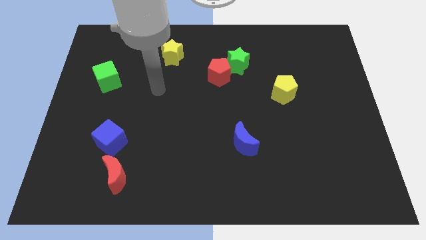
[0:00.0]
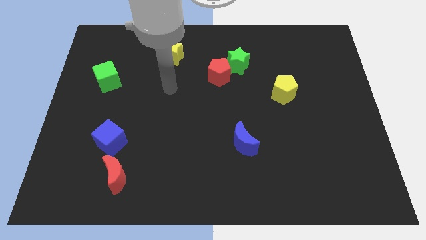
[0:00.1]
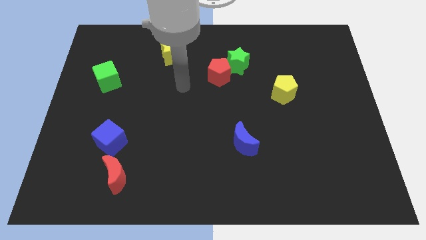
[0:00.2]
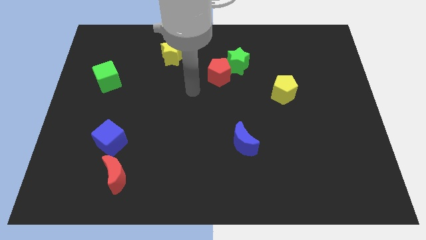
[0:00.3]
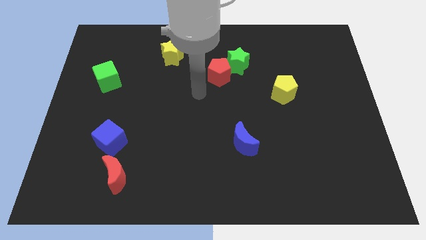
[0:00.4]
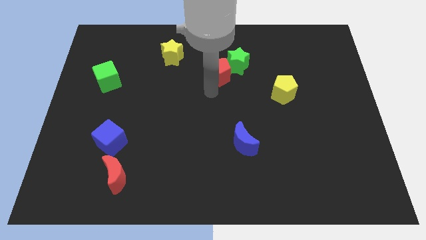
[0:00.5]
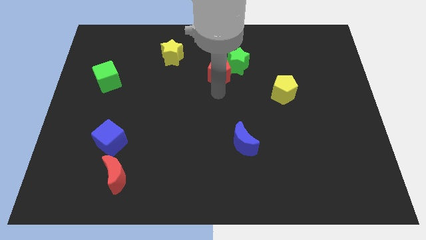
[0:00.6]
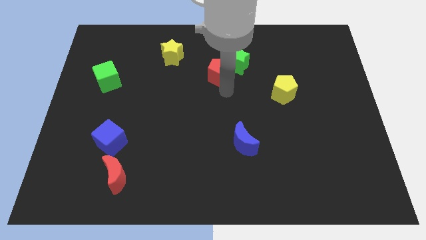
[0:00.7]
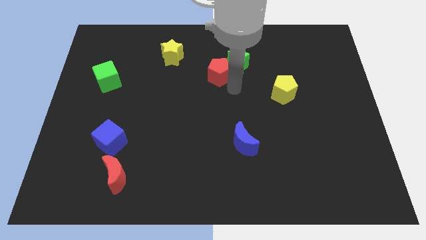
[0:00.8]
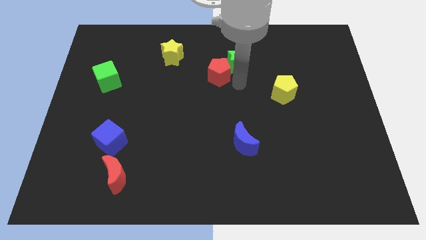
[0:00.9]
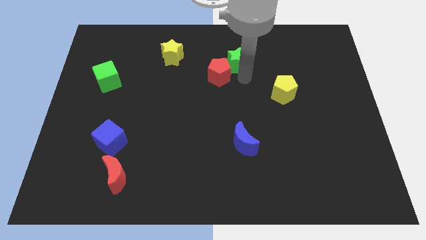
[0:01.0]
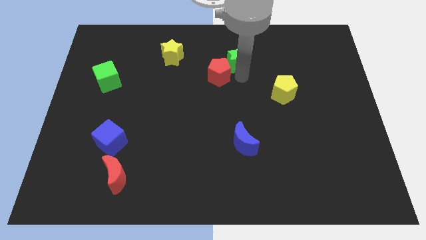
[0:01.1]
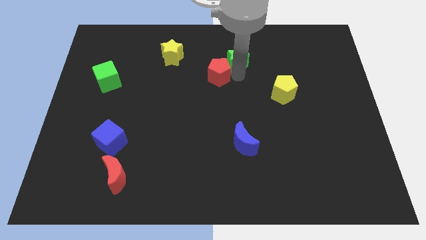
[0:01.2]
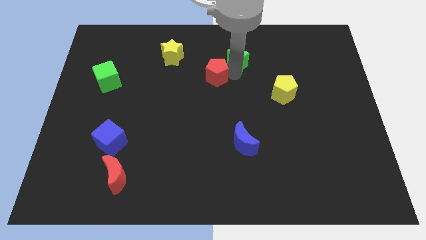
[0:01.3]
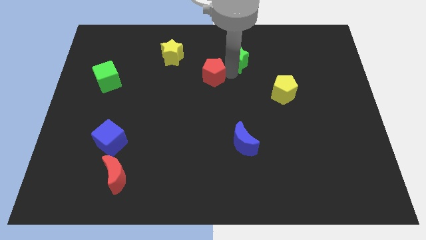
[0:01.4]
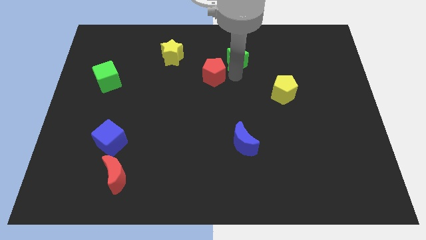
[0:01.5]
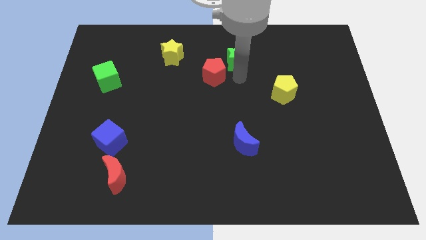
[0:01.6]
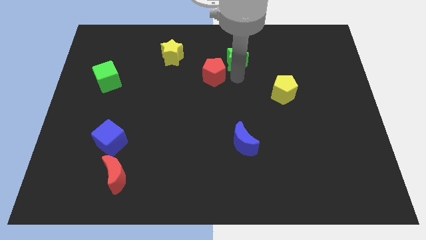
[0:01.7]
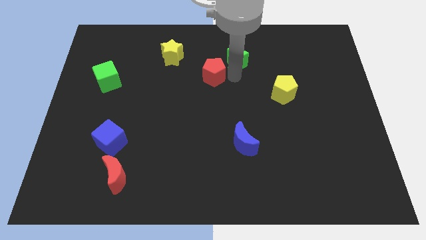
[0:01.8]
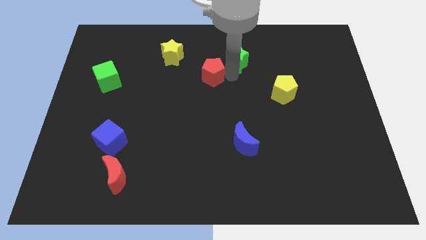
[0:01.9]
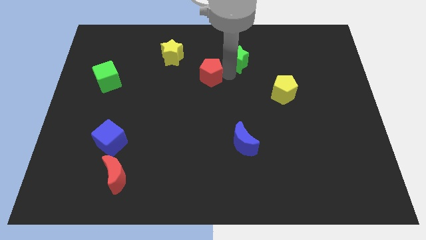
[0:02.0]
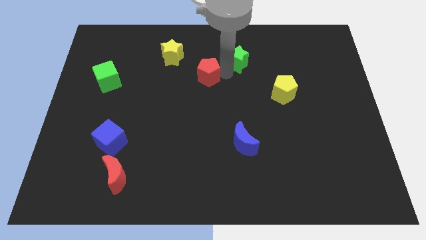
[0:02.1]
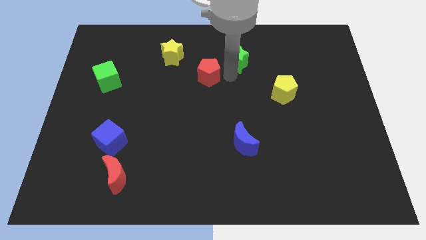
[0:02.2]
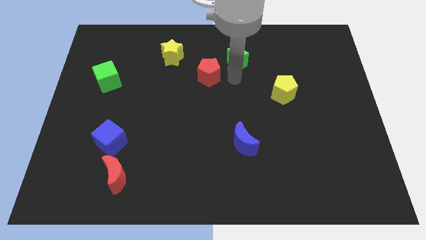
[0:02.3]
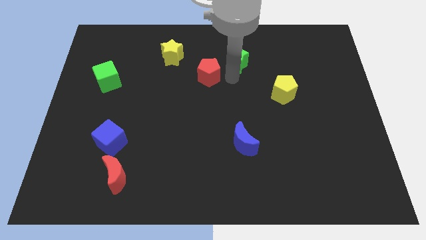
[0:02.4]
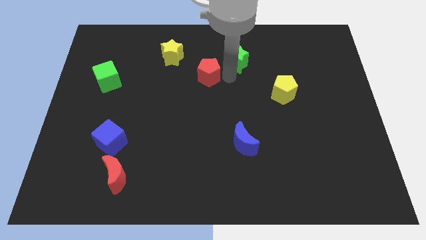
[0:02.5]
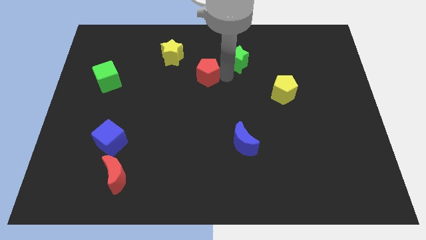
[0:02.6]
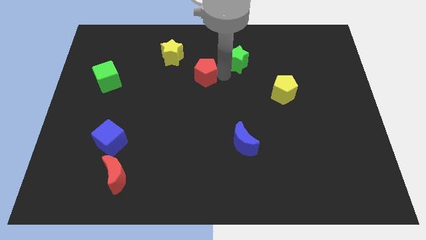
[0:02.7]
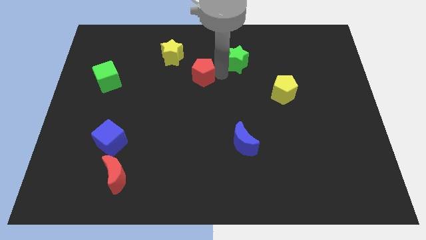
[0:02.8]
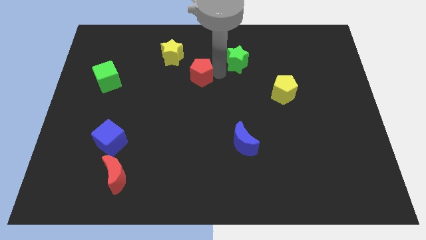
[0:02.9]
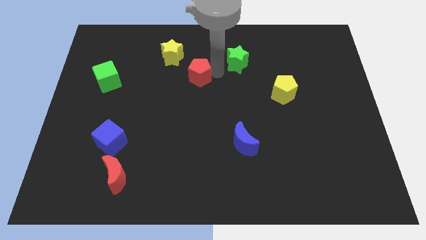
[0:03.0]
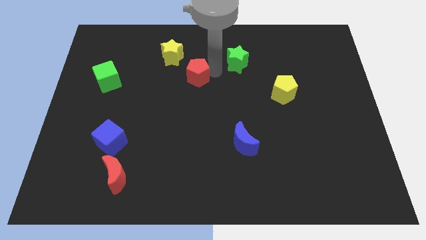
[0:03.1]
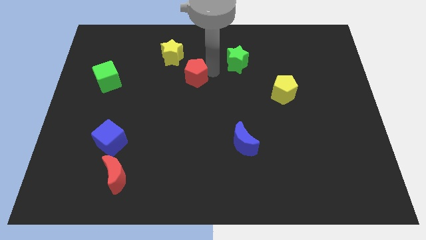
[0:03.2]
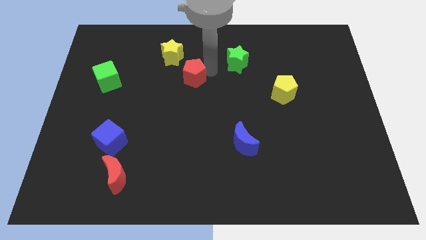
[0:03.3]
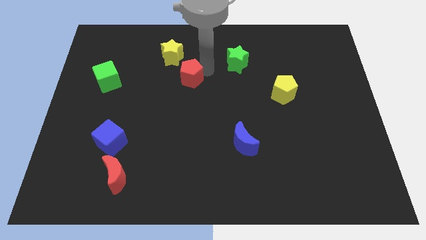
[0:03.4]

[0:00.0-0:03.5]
slide the red pentagon to the left a little

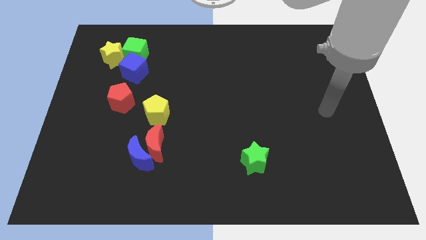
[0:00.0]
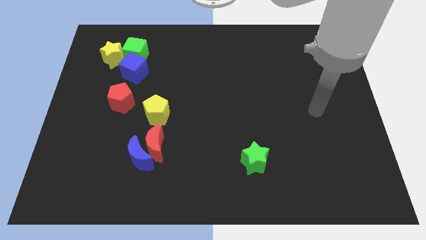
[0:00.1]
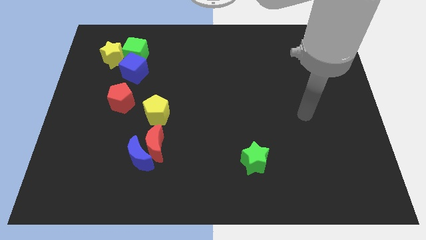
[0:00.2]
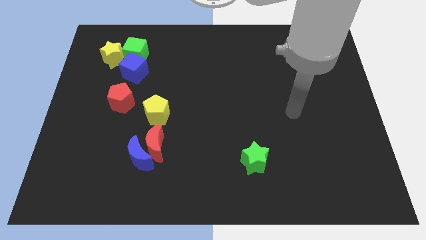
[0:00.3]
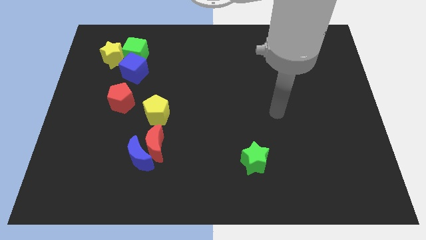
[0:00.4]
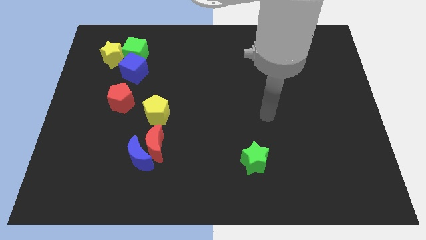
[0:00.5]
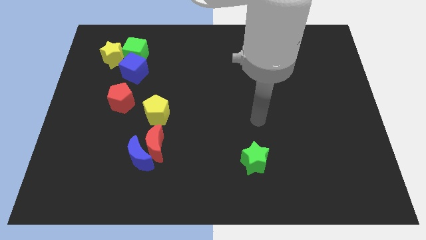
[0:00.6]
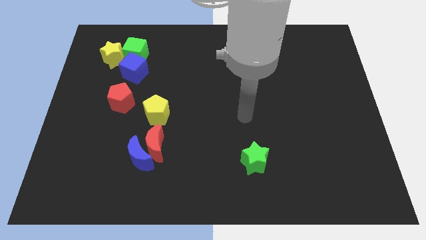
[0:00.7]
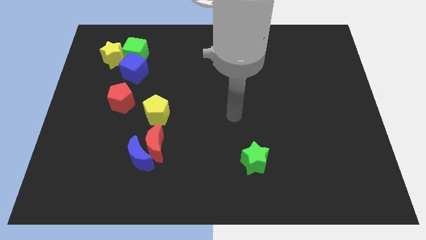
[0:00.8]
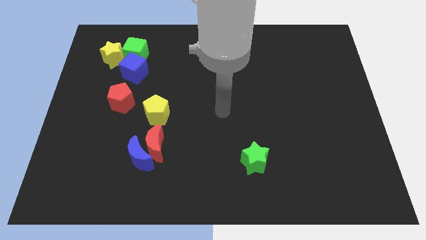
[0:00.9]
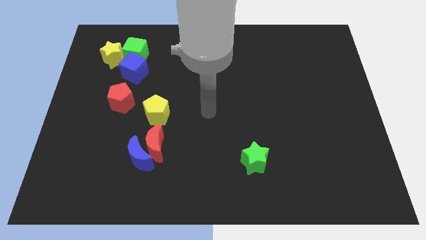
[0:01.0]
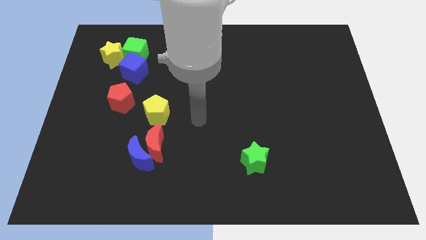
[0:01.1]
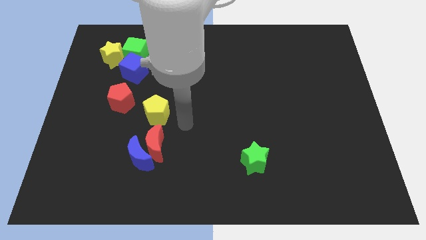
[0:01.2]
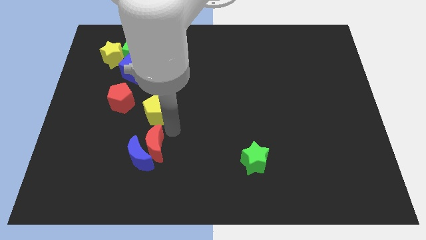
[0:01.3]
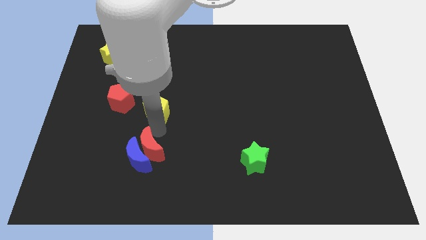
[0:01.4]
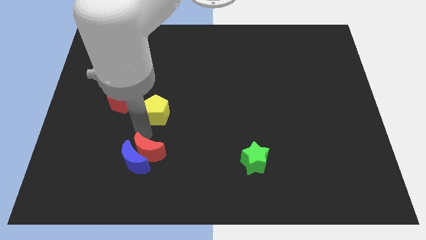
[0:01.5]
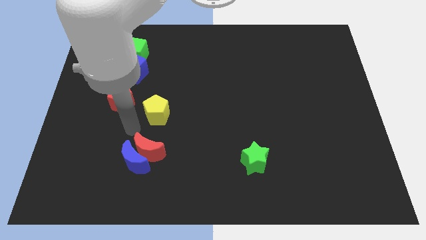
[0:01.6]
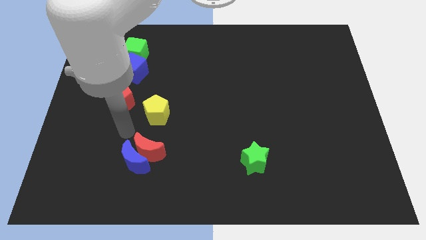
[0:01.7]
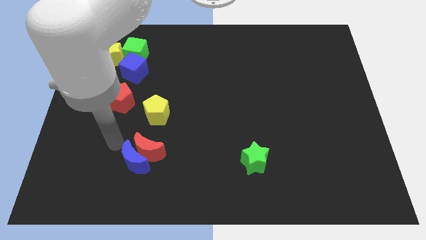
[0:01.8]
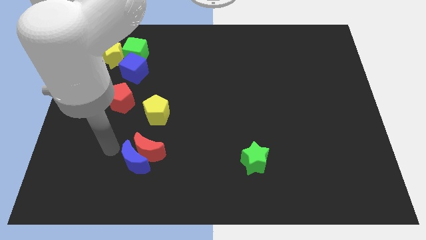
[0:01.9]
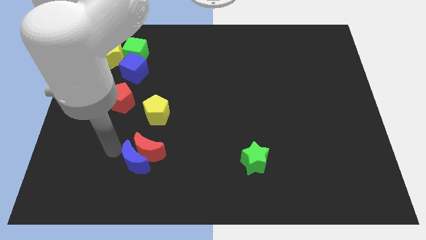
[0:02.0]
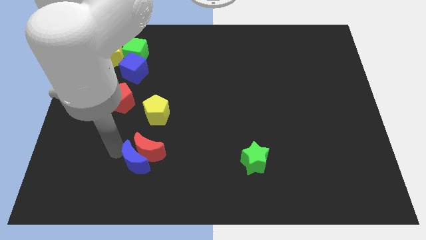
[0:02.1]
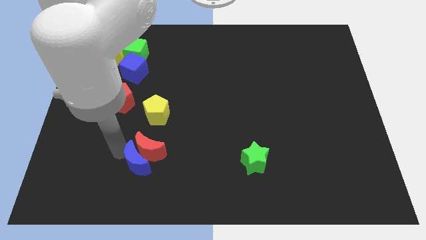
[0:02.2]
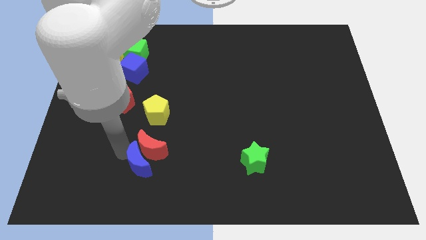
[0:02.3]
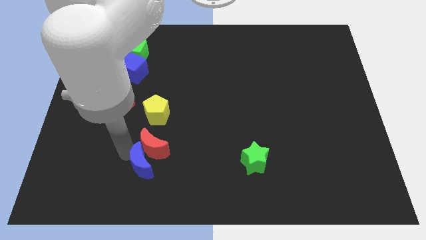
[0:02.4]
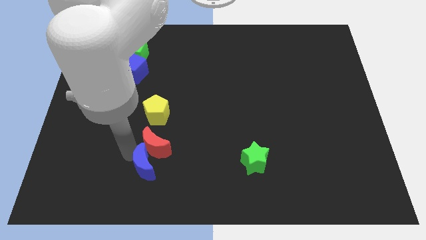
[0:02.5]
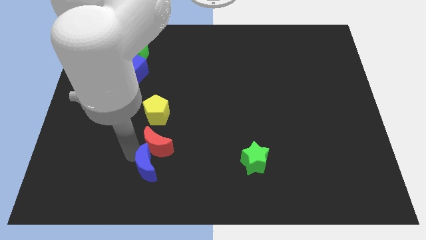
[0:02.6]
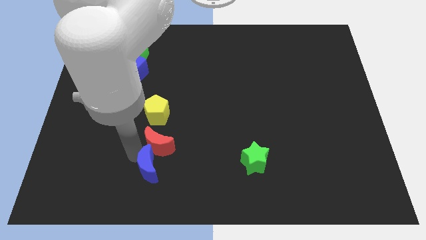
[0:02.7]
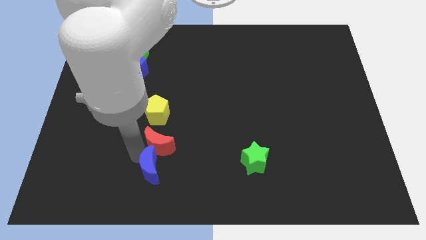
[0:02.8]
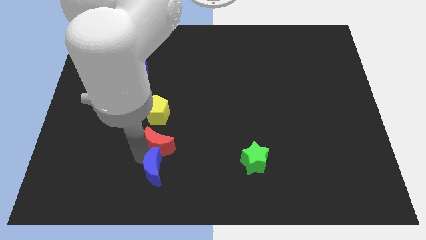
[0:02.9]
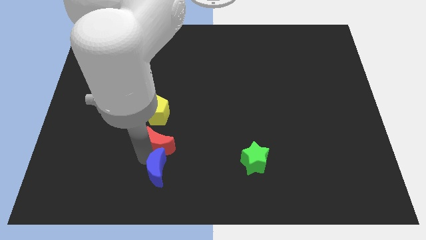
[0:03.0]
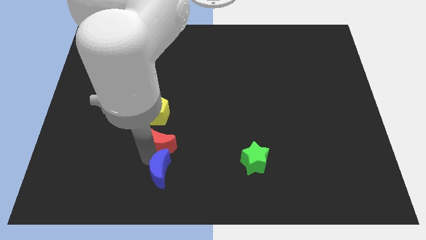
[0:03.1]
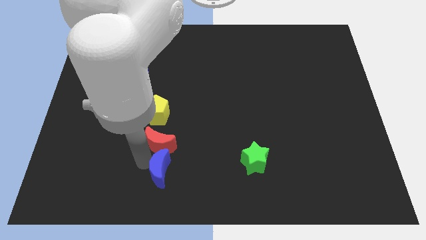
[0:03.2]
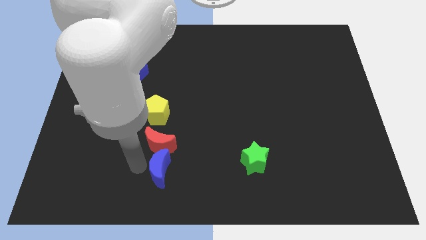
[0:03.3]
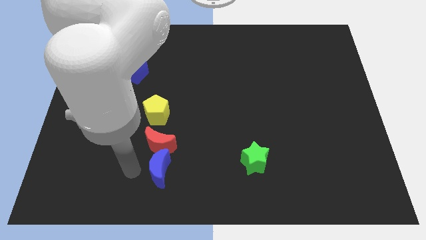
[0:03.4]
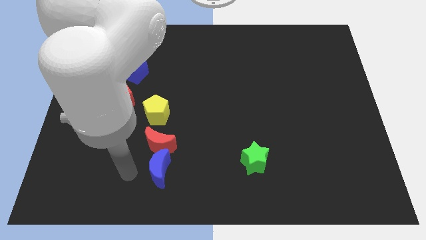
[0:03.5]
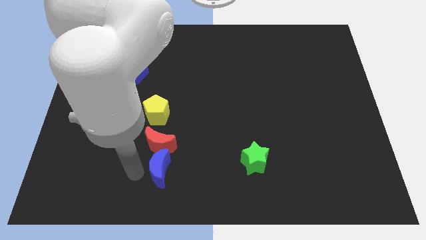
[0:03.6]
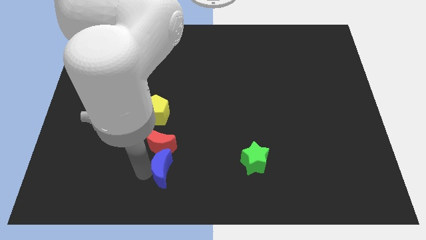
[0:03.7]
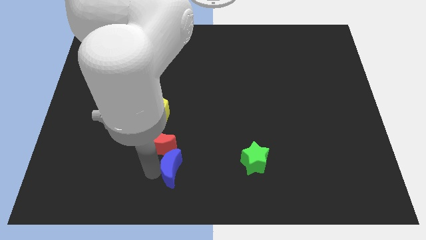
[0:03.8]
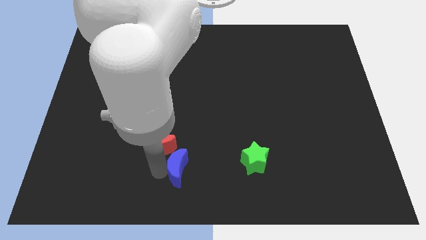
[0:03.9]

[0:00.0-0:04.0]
push the blue moon a bit right

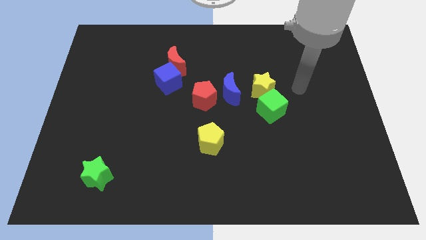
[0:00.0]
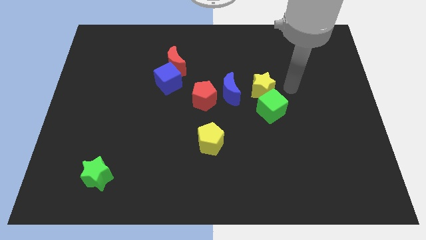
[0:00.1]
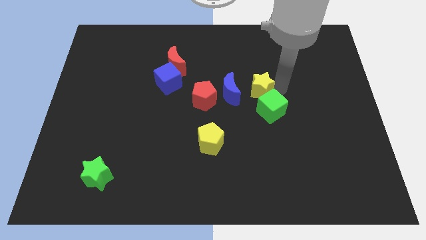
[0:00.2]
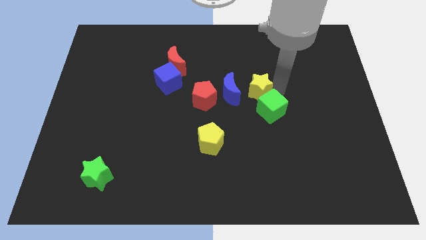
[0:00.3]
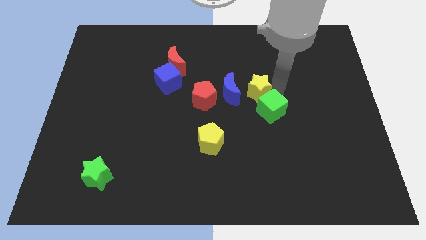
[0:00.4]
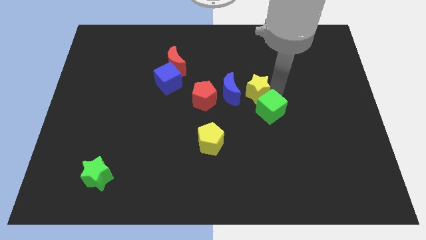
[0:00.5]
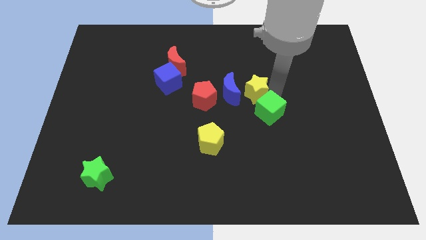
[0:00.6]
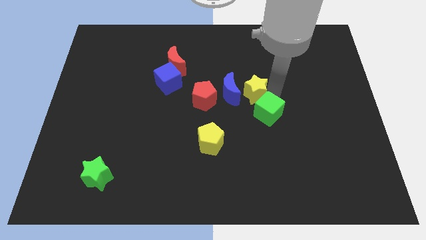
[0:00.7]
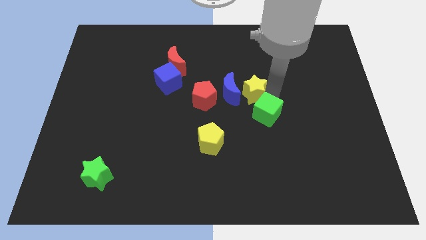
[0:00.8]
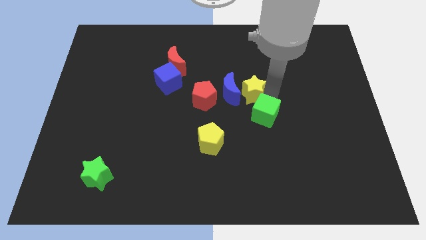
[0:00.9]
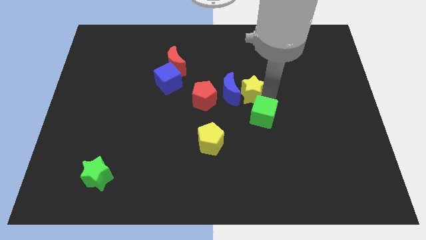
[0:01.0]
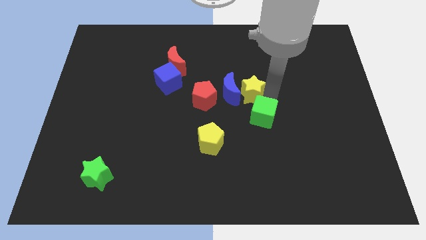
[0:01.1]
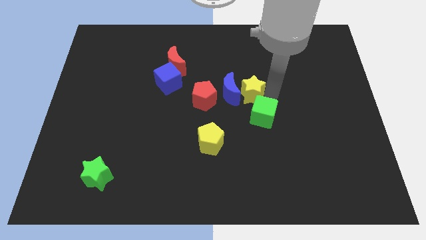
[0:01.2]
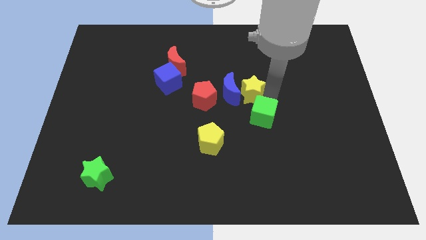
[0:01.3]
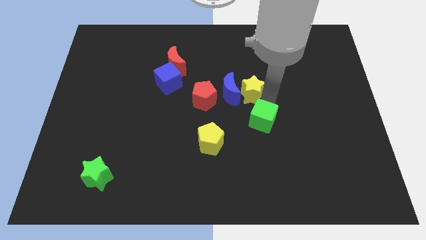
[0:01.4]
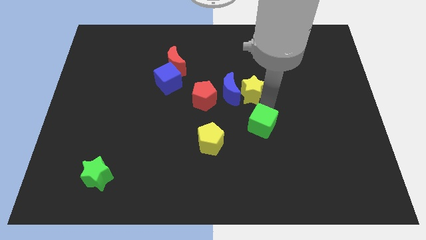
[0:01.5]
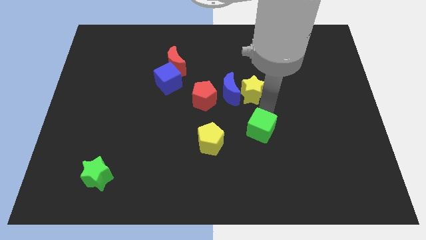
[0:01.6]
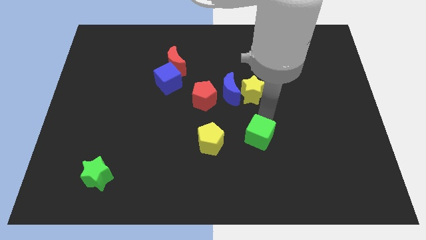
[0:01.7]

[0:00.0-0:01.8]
slightly slide the green cube downwards and left diagonally
